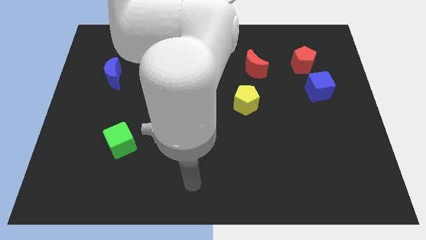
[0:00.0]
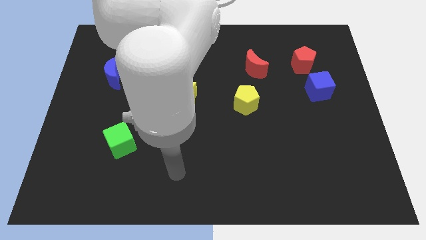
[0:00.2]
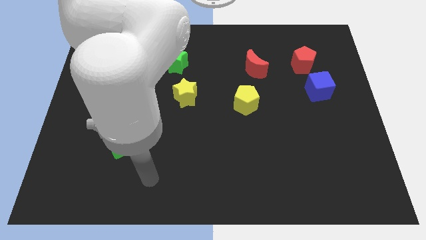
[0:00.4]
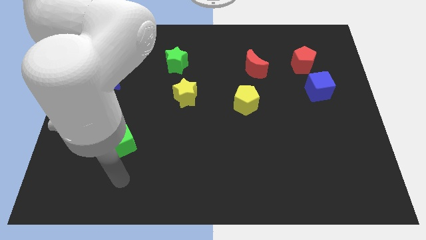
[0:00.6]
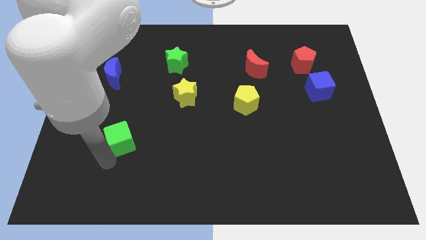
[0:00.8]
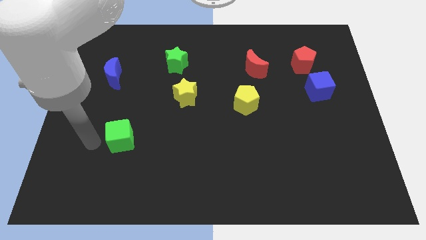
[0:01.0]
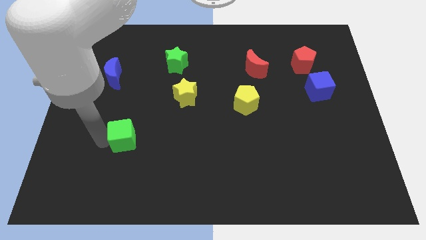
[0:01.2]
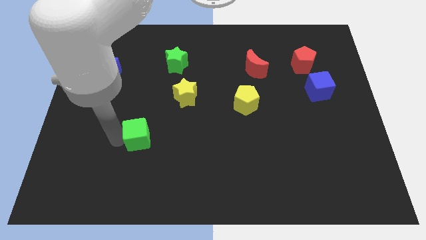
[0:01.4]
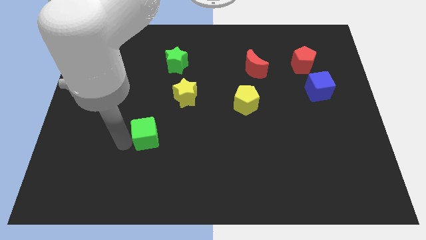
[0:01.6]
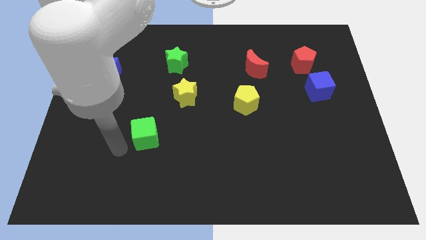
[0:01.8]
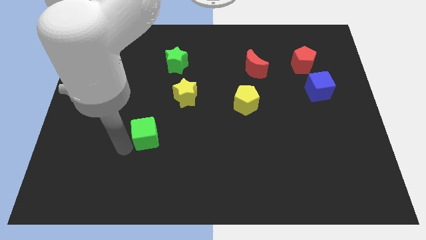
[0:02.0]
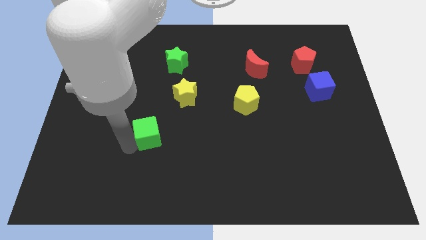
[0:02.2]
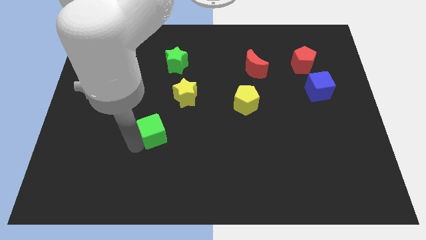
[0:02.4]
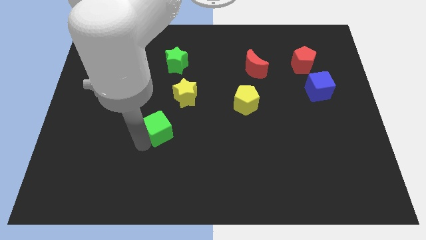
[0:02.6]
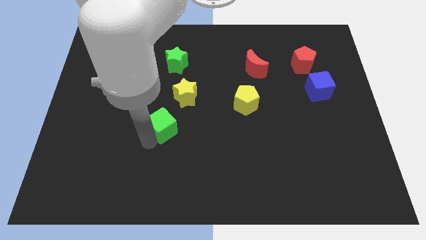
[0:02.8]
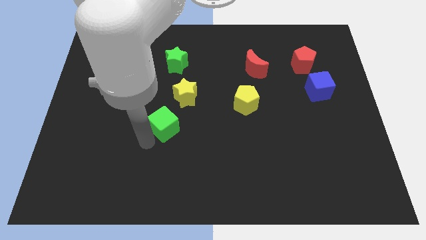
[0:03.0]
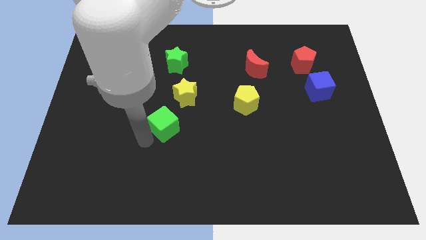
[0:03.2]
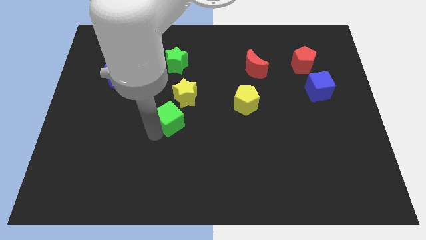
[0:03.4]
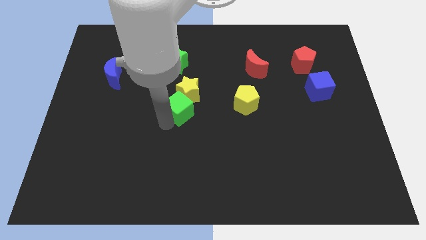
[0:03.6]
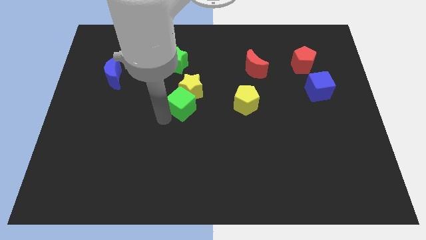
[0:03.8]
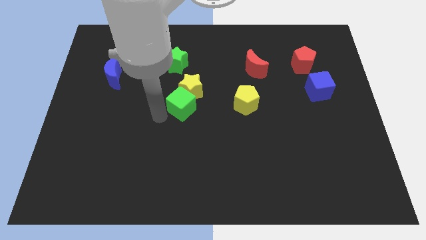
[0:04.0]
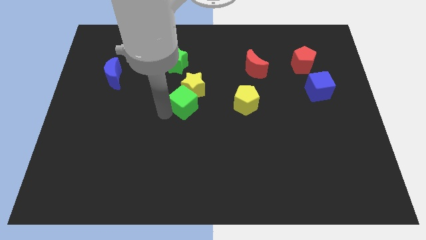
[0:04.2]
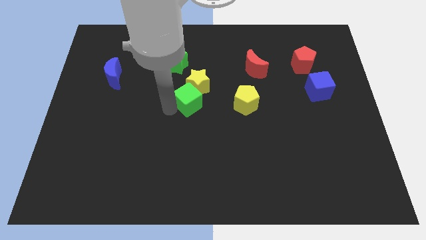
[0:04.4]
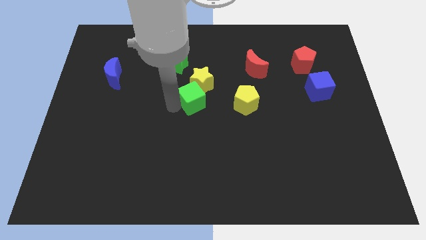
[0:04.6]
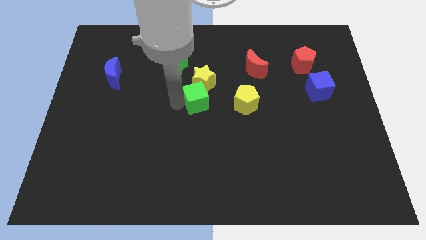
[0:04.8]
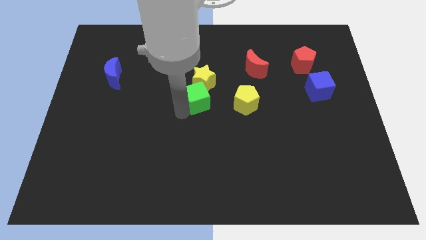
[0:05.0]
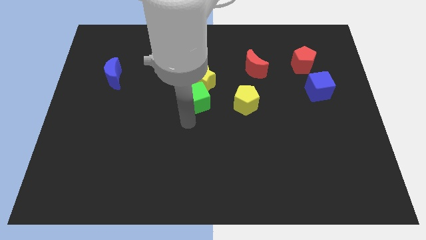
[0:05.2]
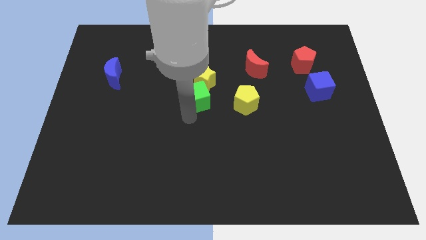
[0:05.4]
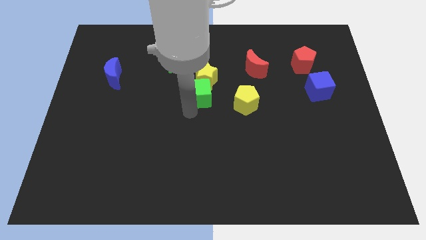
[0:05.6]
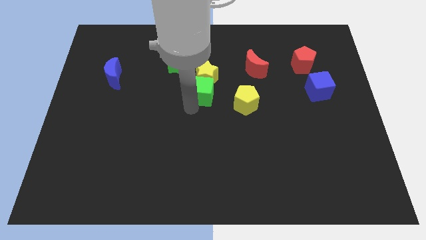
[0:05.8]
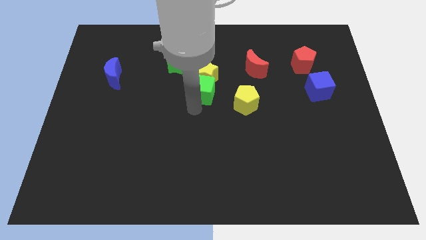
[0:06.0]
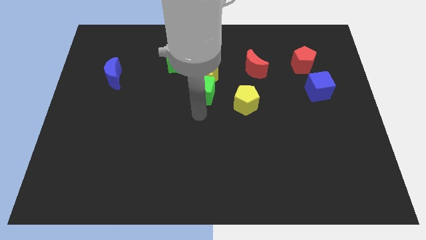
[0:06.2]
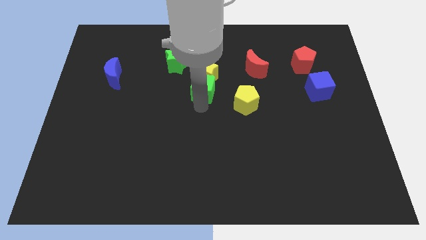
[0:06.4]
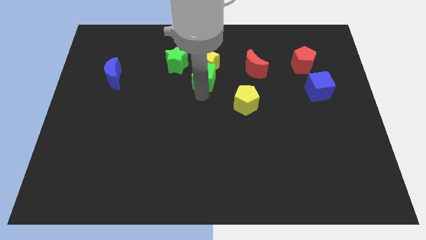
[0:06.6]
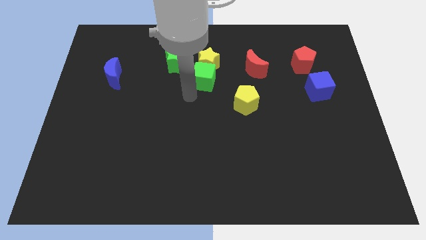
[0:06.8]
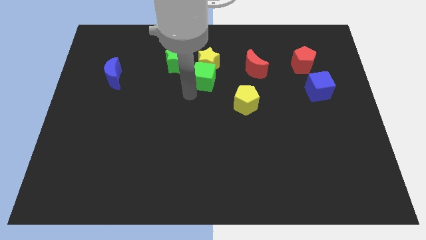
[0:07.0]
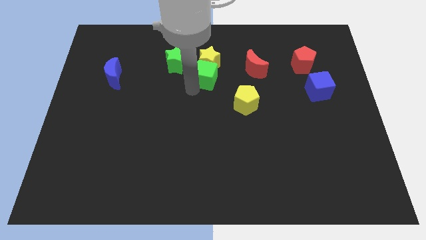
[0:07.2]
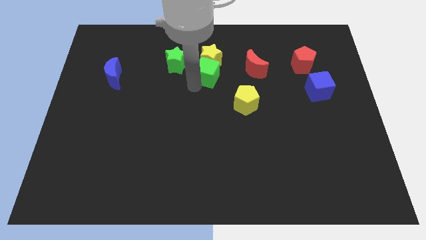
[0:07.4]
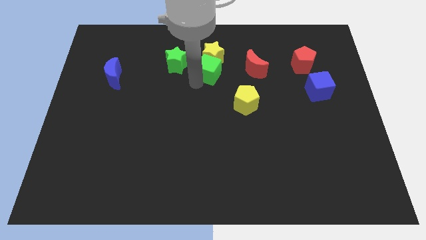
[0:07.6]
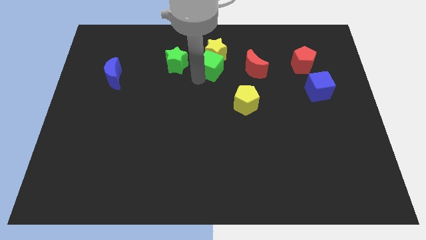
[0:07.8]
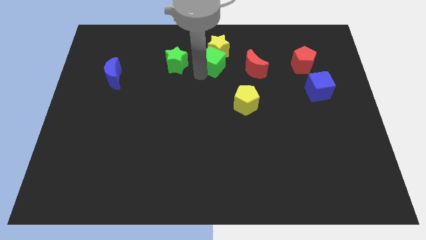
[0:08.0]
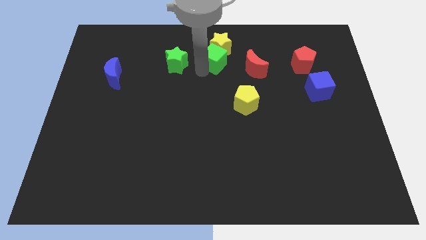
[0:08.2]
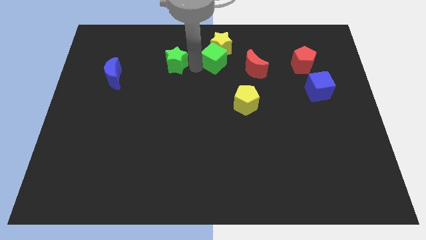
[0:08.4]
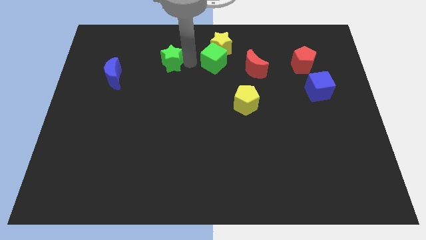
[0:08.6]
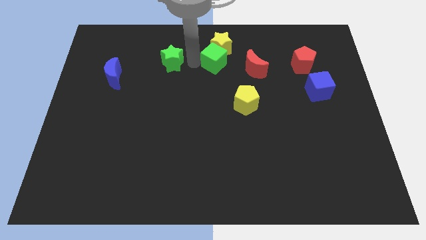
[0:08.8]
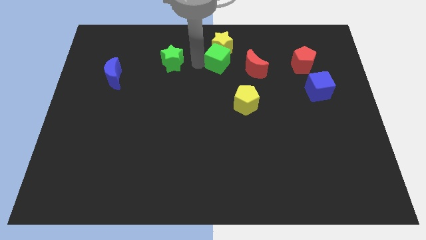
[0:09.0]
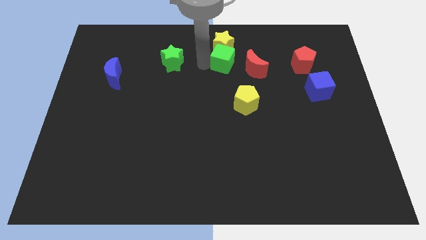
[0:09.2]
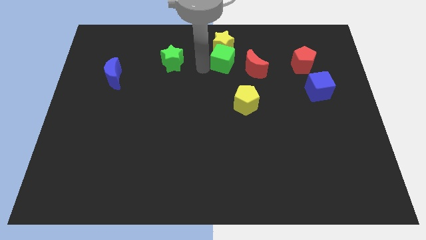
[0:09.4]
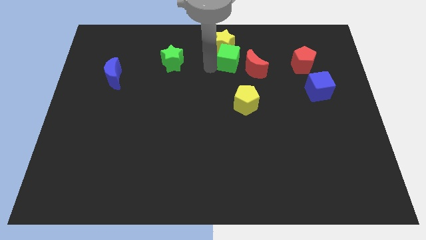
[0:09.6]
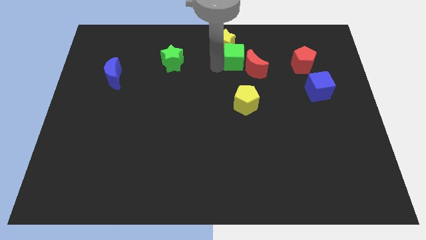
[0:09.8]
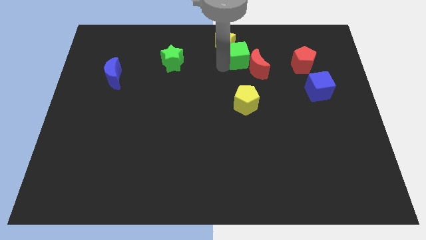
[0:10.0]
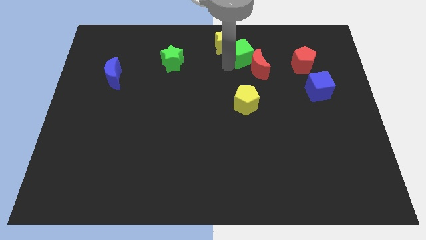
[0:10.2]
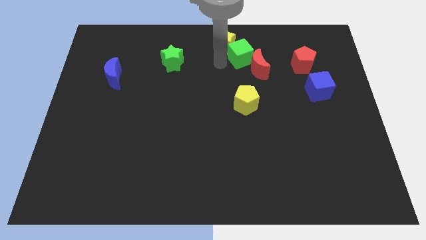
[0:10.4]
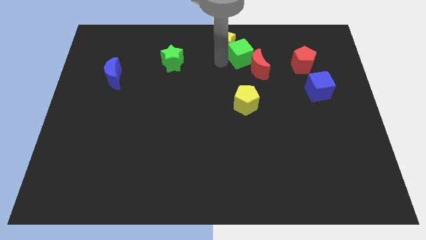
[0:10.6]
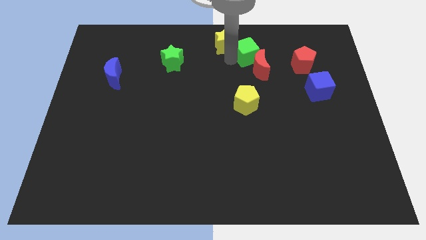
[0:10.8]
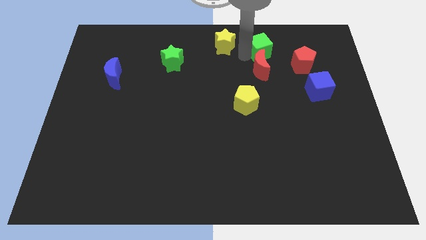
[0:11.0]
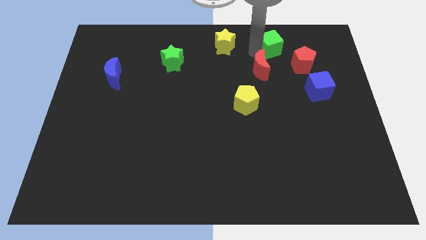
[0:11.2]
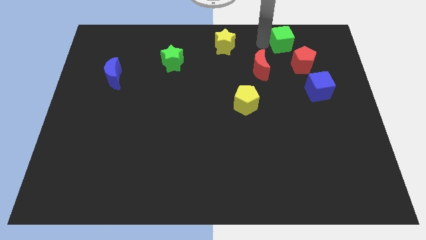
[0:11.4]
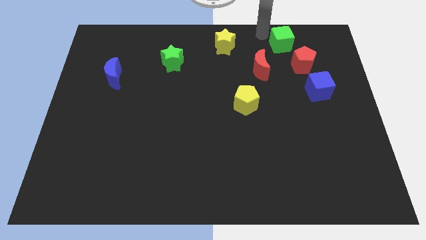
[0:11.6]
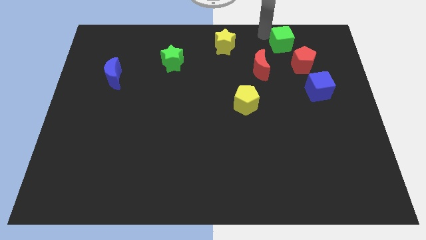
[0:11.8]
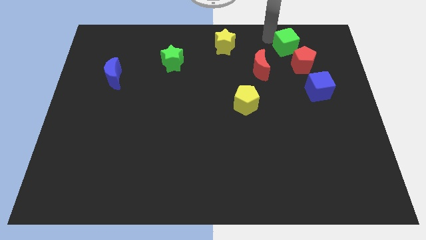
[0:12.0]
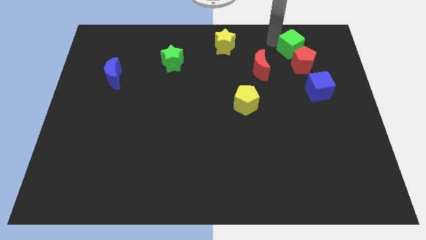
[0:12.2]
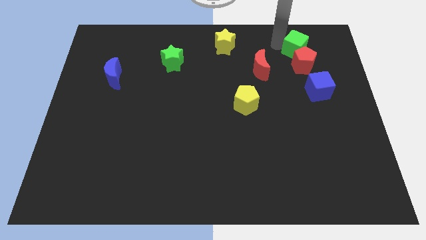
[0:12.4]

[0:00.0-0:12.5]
push the green cube above the blue cube

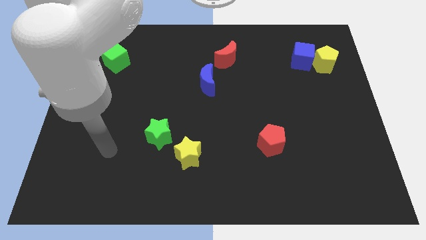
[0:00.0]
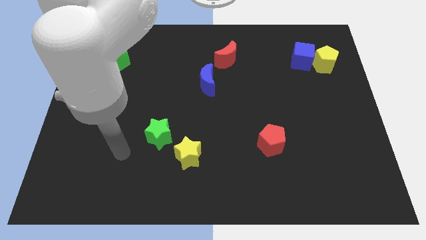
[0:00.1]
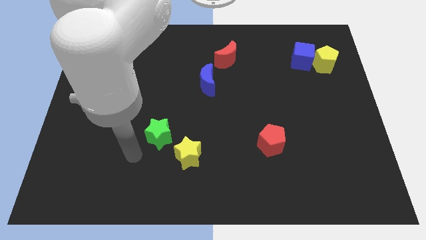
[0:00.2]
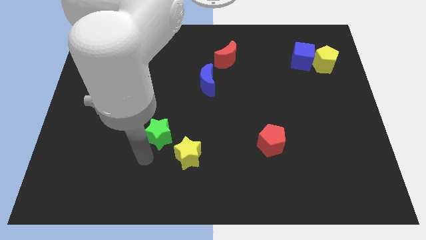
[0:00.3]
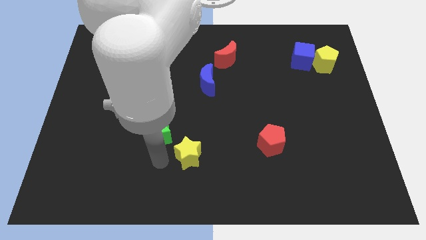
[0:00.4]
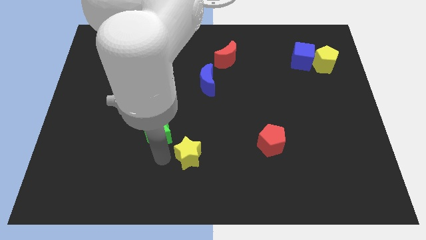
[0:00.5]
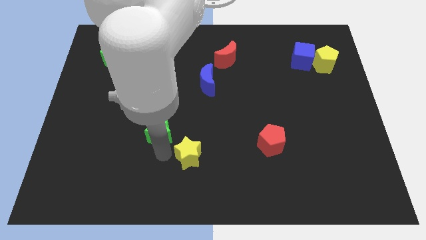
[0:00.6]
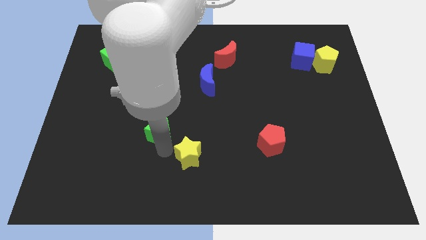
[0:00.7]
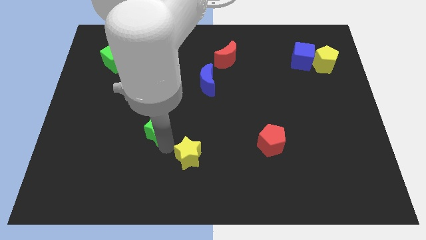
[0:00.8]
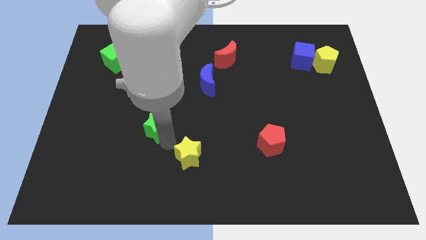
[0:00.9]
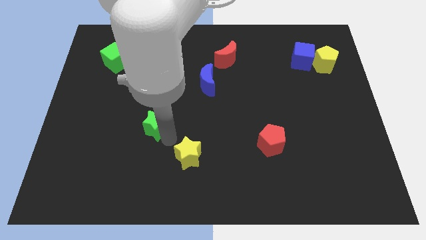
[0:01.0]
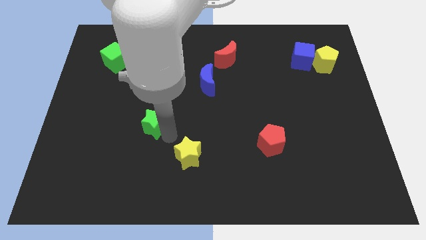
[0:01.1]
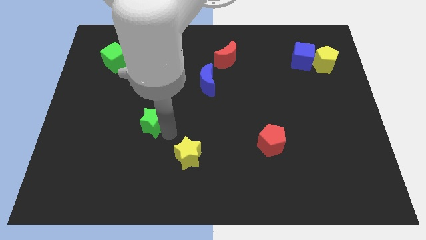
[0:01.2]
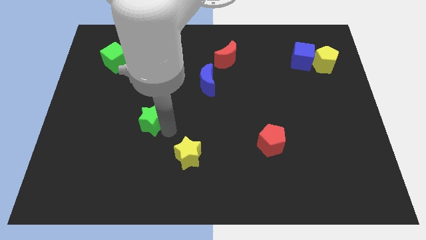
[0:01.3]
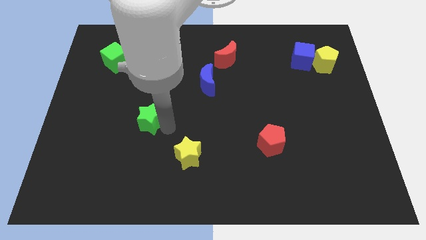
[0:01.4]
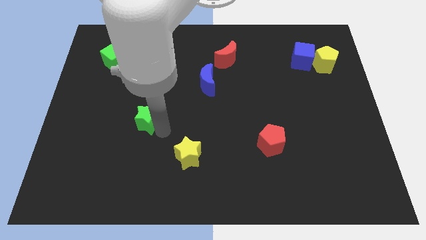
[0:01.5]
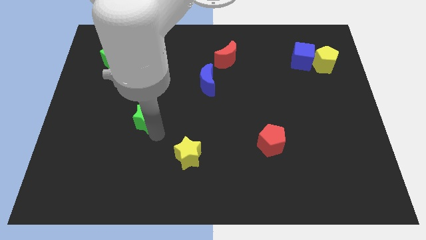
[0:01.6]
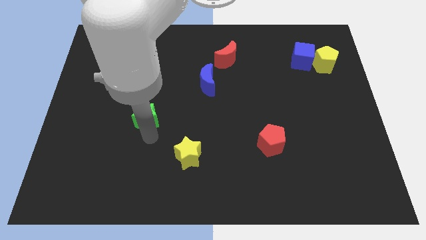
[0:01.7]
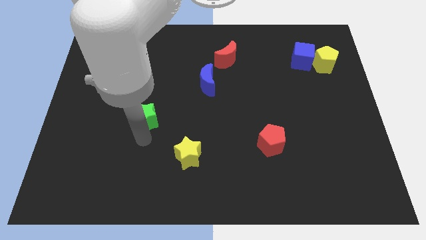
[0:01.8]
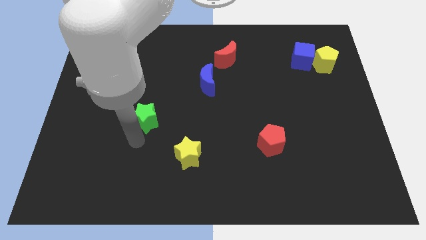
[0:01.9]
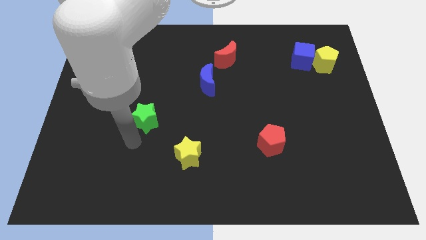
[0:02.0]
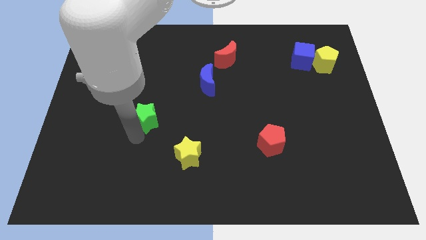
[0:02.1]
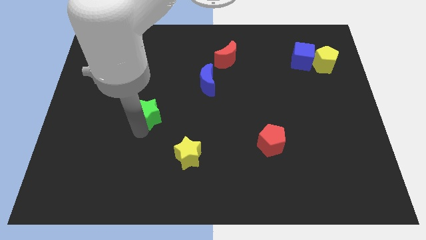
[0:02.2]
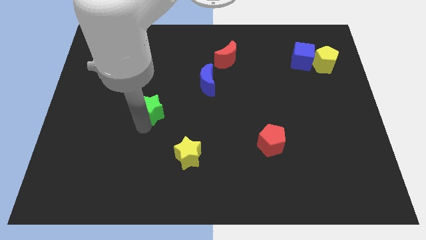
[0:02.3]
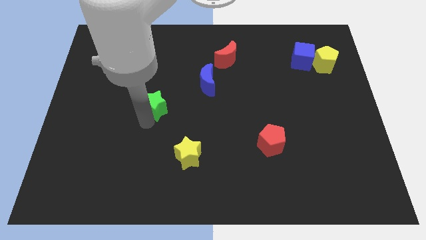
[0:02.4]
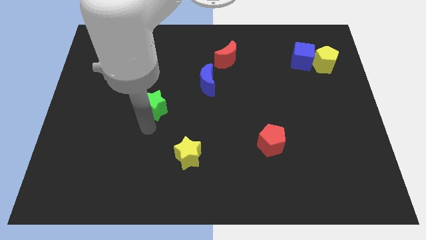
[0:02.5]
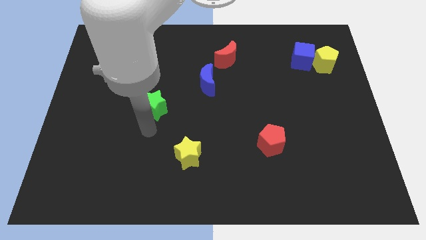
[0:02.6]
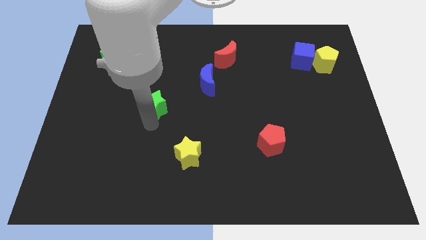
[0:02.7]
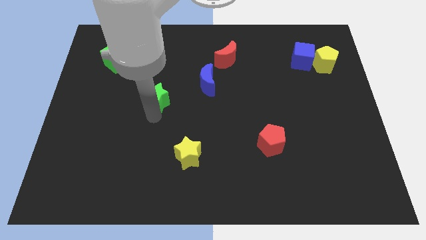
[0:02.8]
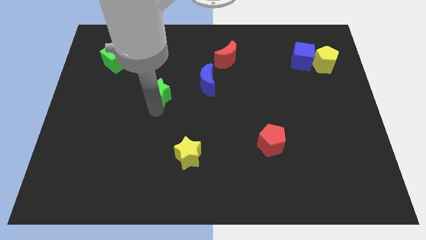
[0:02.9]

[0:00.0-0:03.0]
slide the green star to the left side of the blue moon
